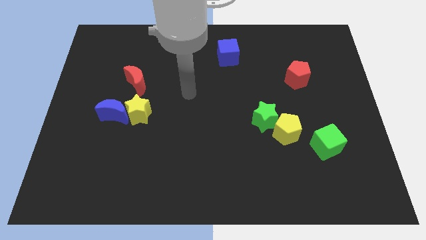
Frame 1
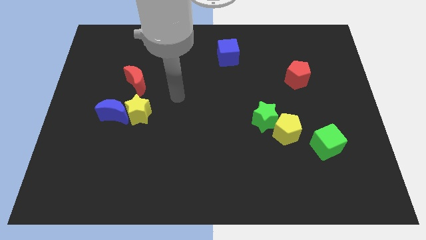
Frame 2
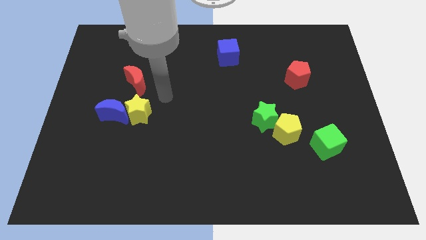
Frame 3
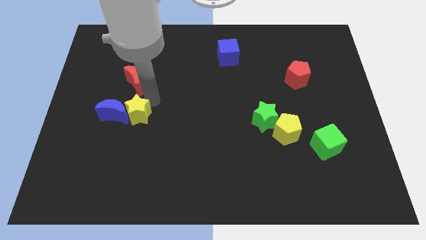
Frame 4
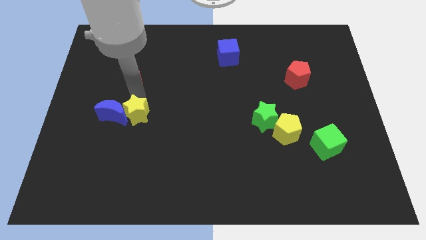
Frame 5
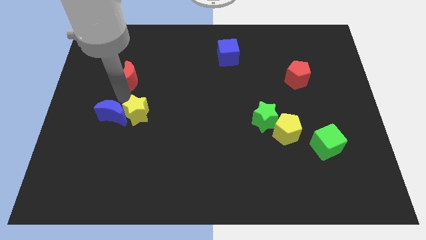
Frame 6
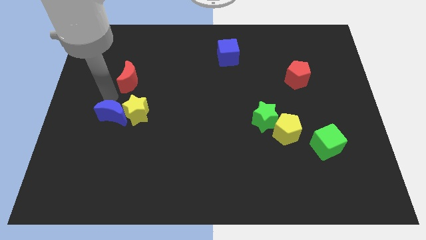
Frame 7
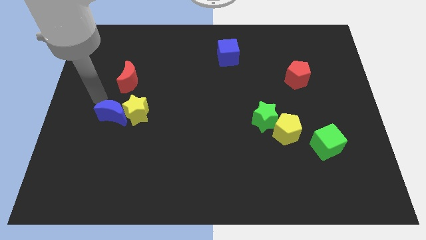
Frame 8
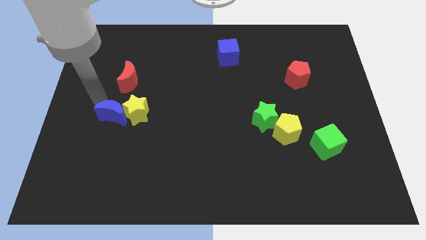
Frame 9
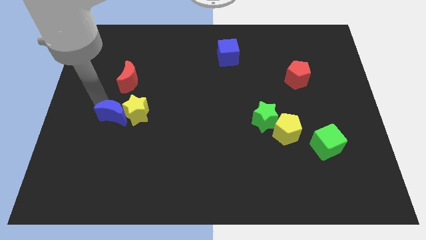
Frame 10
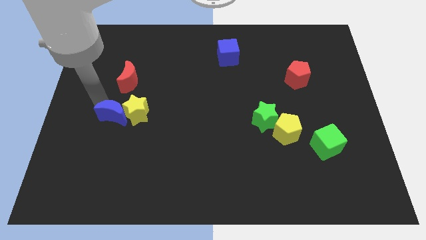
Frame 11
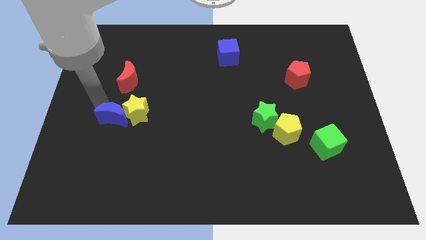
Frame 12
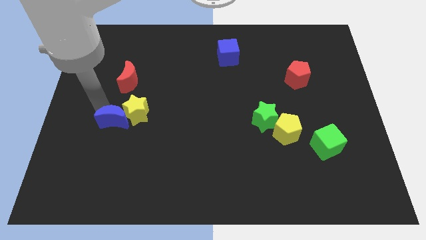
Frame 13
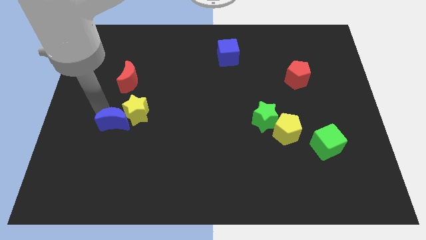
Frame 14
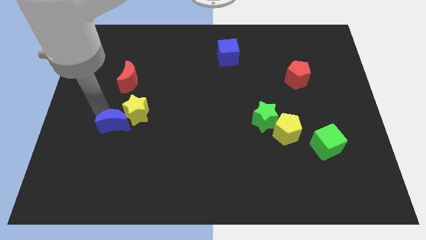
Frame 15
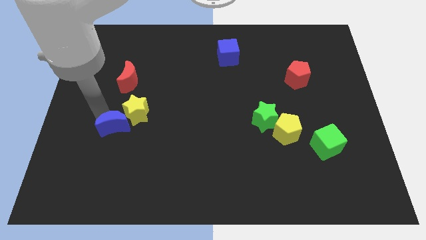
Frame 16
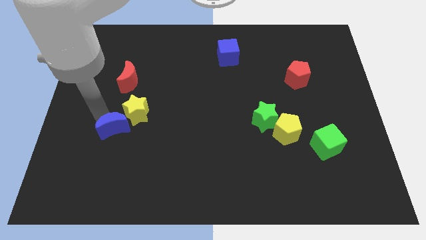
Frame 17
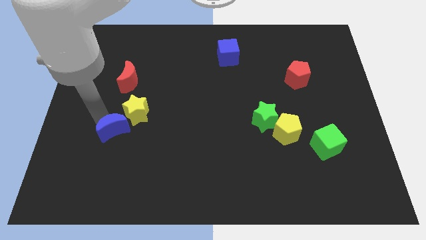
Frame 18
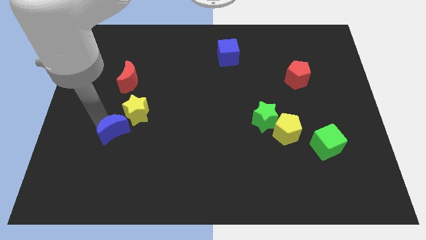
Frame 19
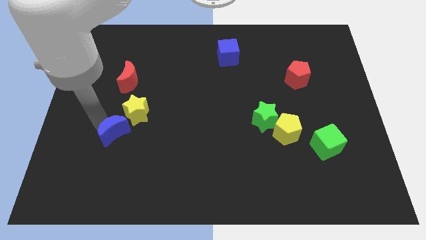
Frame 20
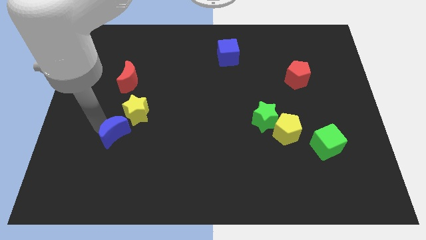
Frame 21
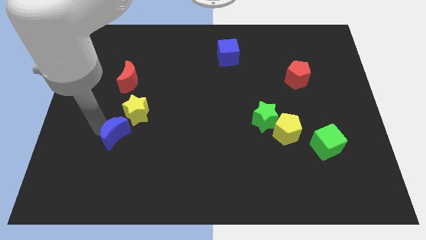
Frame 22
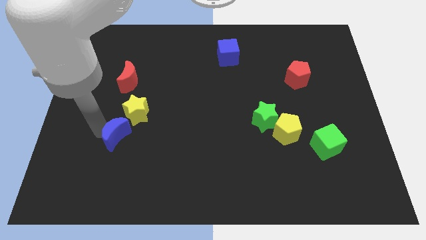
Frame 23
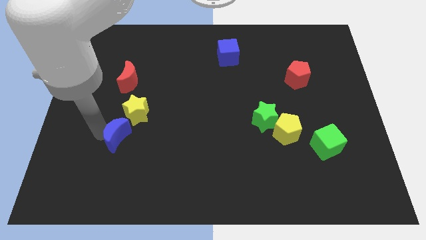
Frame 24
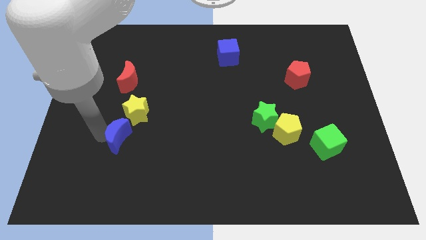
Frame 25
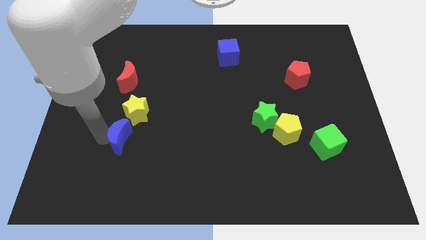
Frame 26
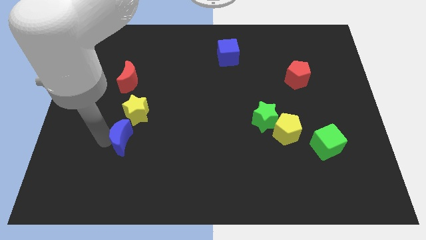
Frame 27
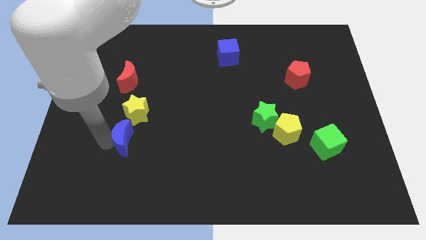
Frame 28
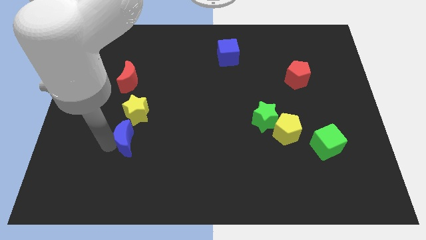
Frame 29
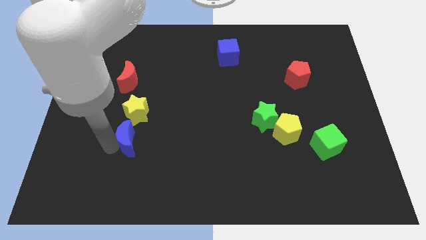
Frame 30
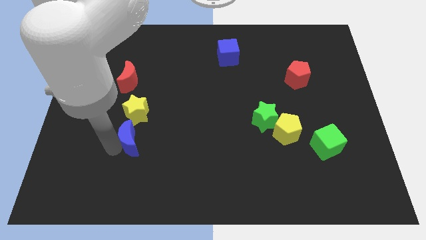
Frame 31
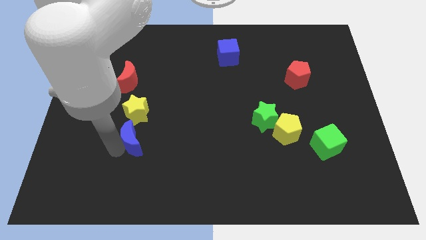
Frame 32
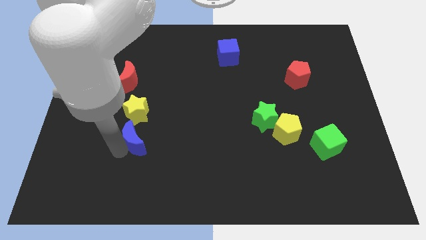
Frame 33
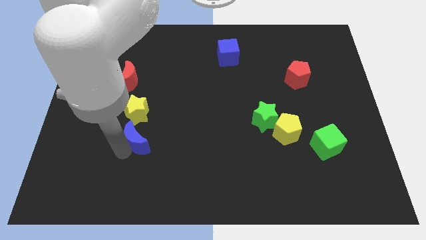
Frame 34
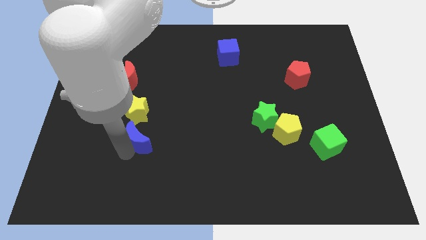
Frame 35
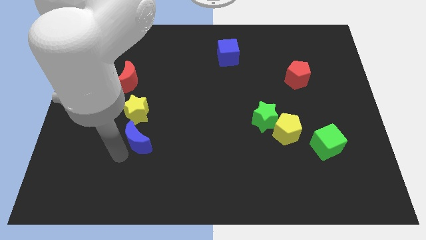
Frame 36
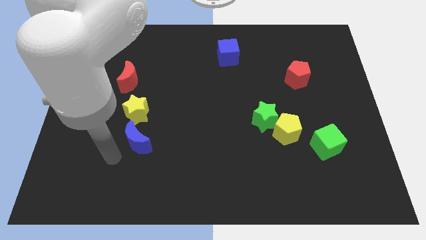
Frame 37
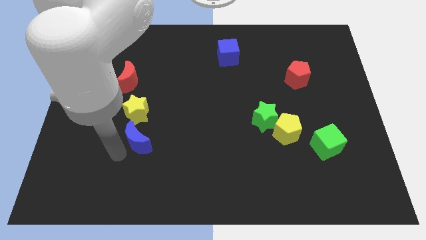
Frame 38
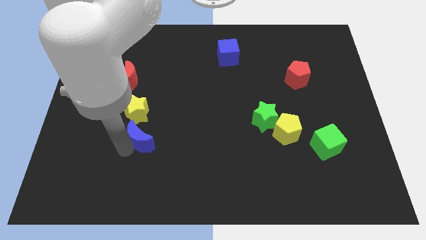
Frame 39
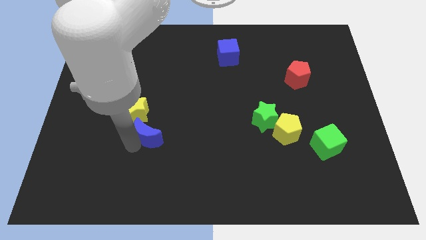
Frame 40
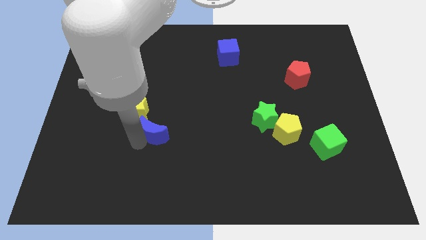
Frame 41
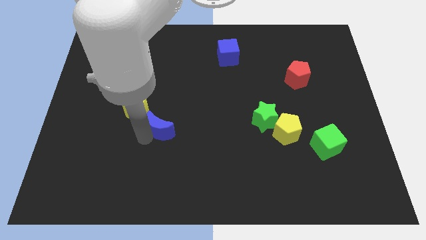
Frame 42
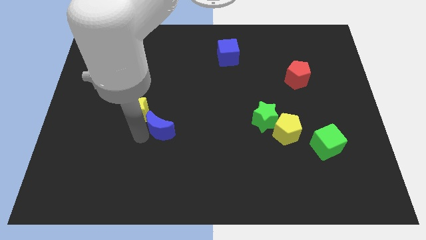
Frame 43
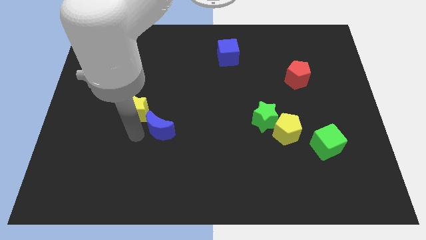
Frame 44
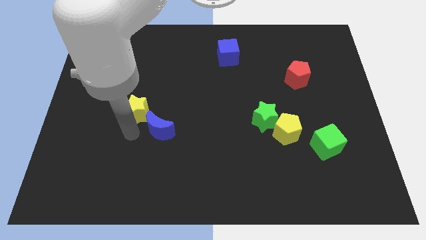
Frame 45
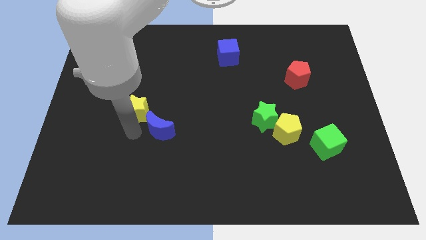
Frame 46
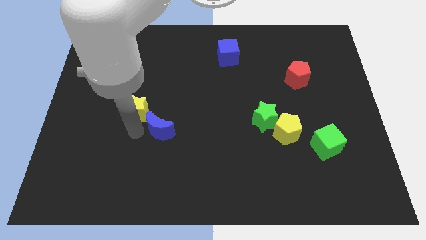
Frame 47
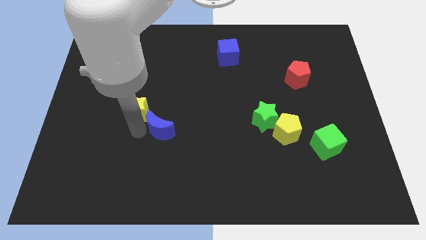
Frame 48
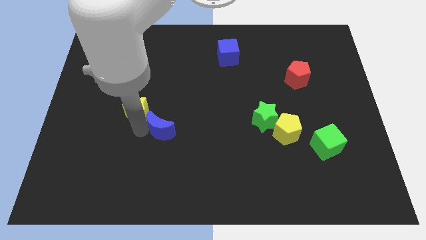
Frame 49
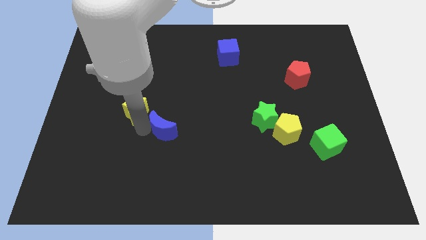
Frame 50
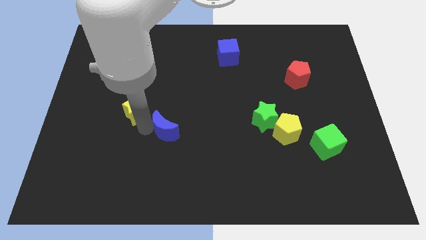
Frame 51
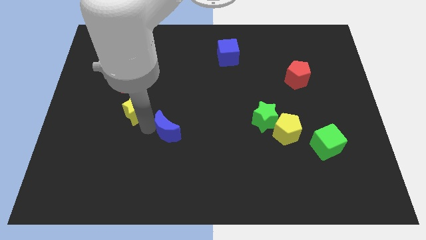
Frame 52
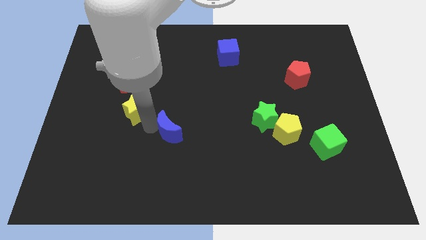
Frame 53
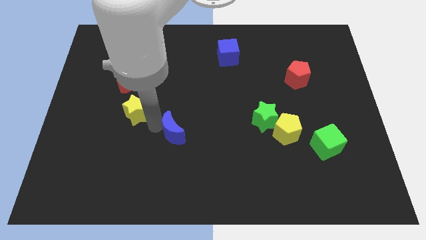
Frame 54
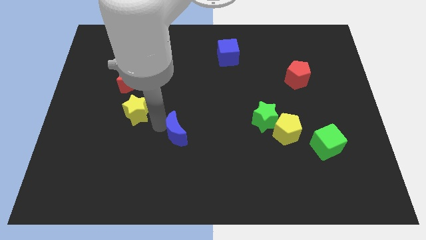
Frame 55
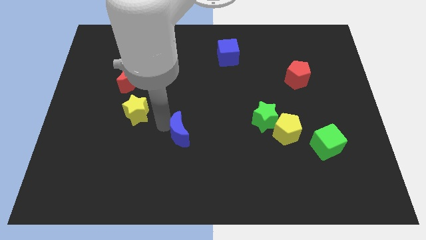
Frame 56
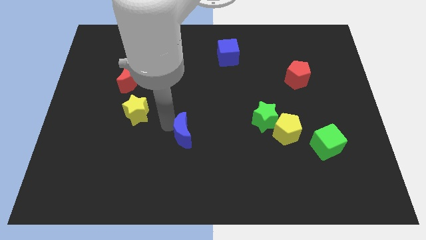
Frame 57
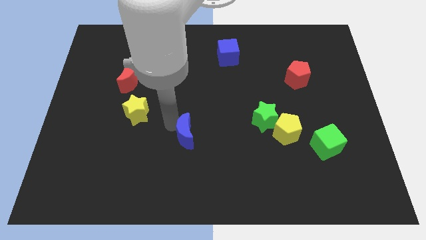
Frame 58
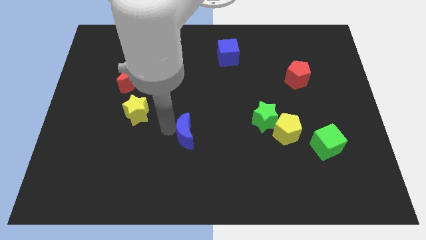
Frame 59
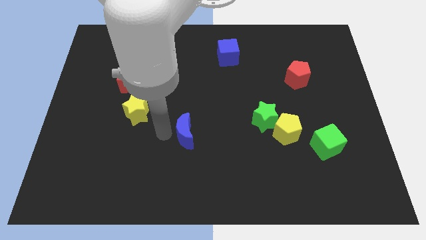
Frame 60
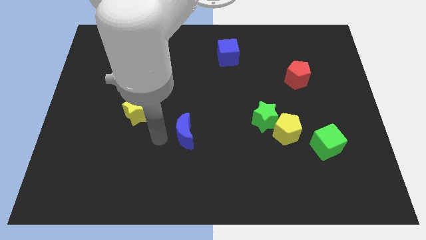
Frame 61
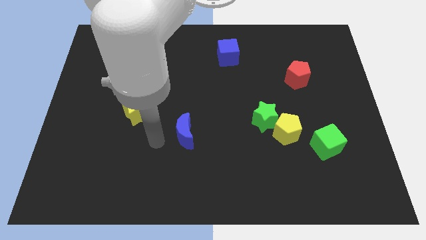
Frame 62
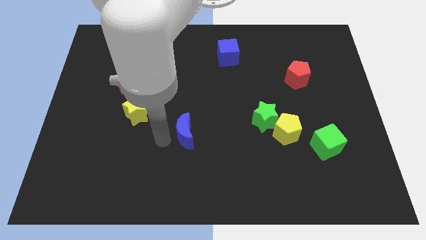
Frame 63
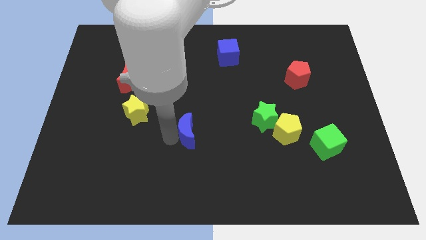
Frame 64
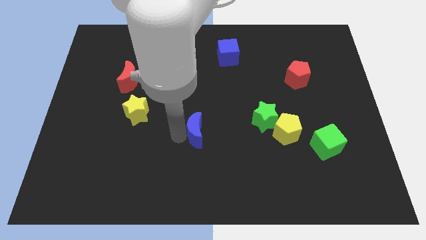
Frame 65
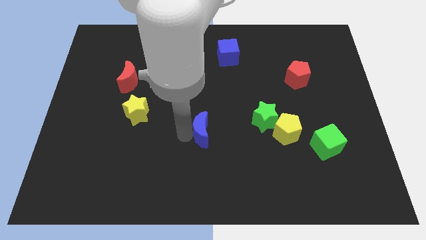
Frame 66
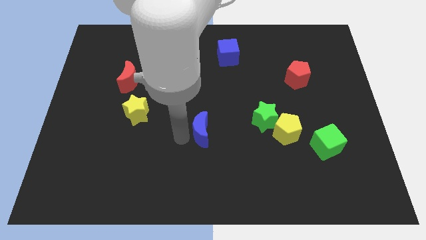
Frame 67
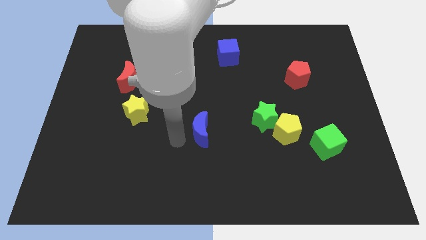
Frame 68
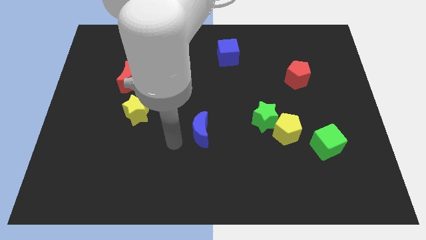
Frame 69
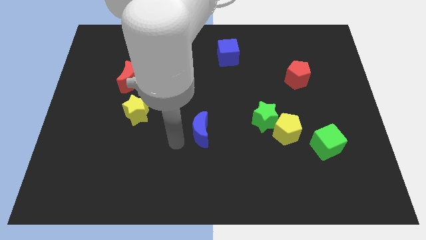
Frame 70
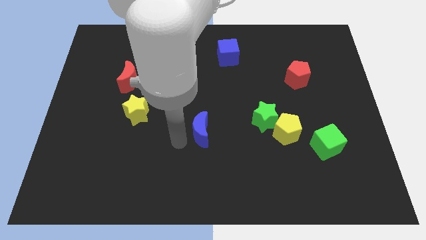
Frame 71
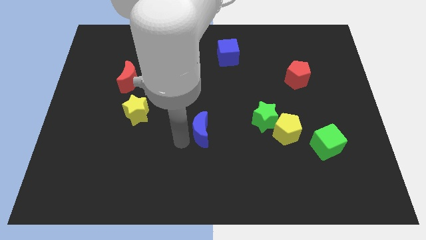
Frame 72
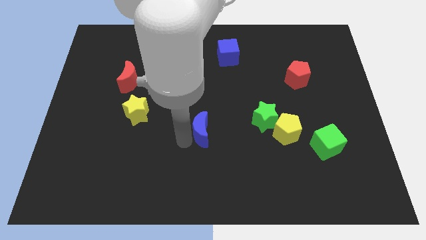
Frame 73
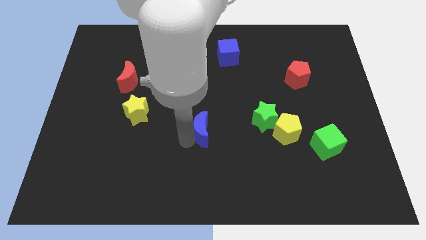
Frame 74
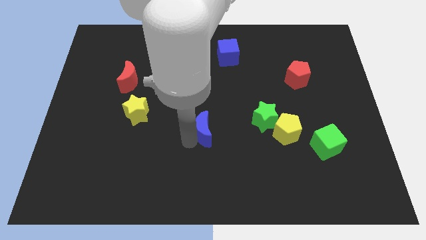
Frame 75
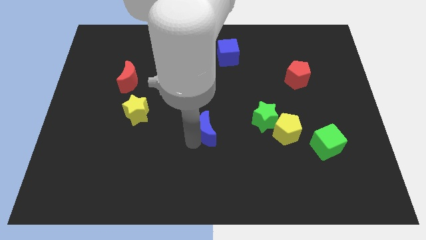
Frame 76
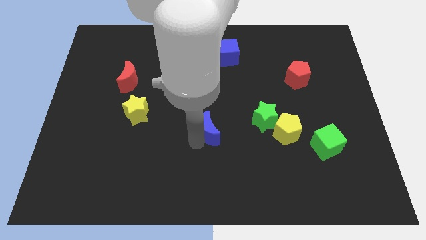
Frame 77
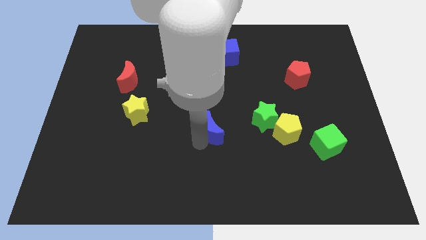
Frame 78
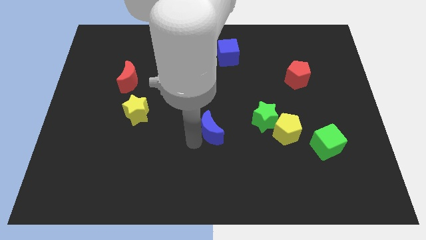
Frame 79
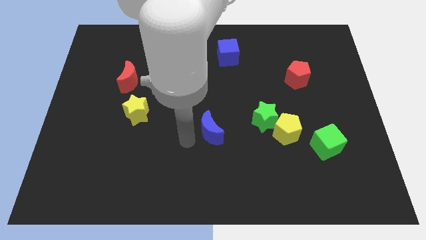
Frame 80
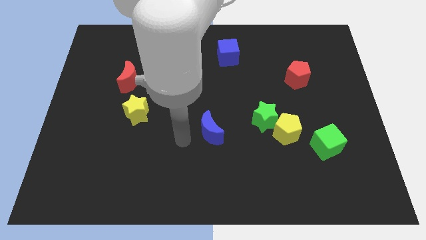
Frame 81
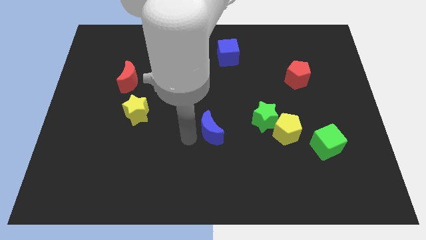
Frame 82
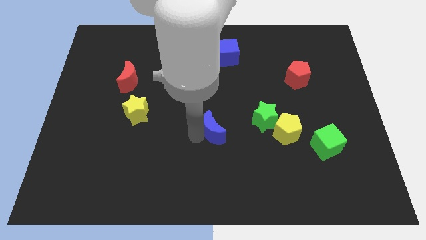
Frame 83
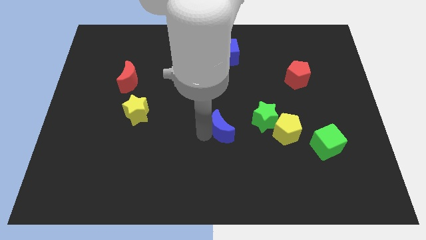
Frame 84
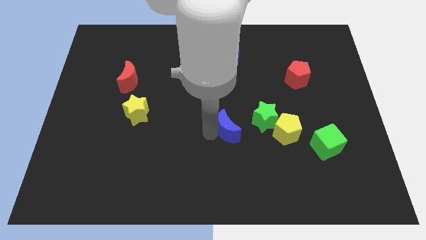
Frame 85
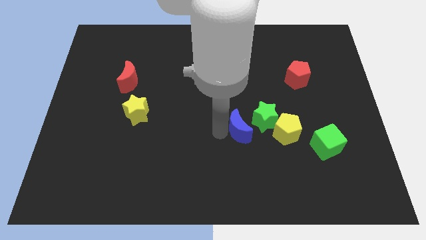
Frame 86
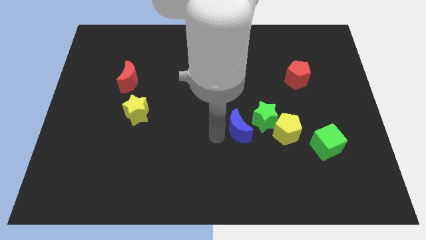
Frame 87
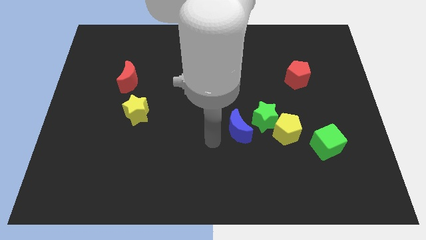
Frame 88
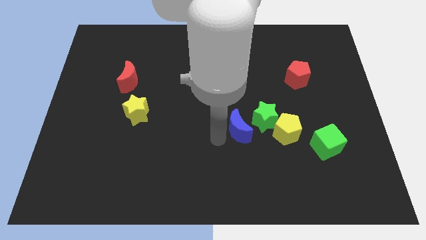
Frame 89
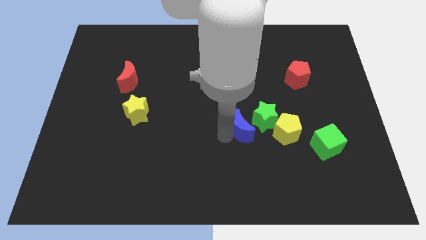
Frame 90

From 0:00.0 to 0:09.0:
slide the blue moon towards the green star
